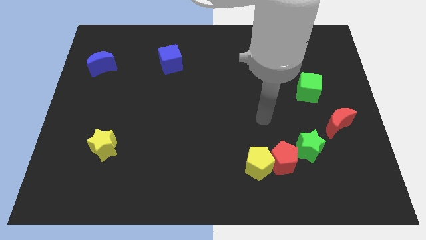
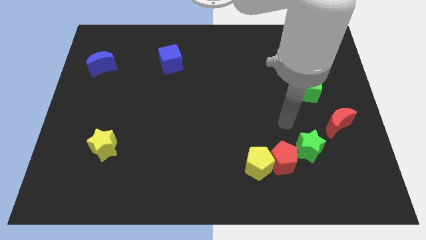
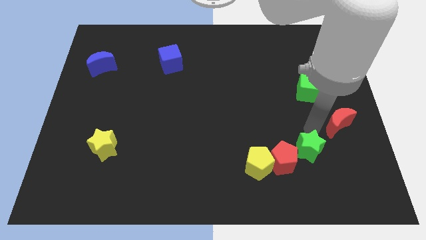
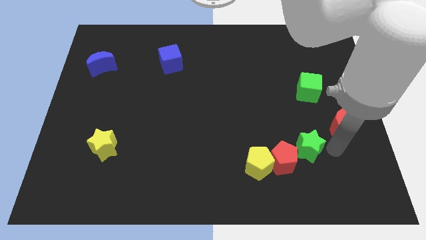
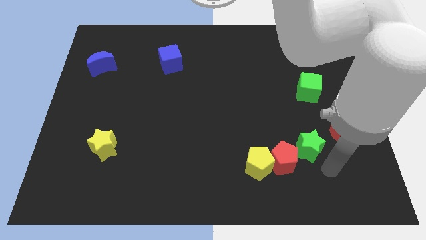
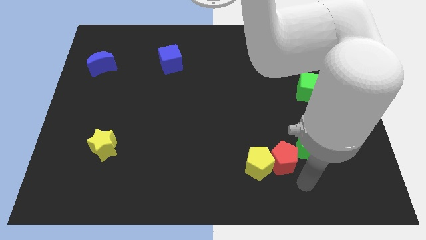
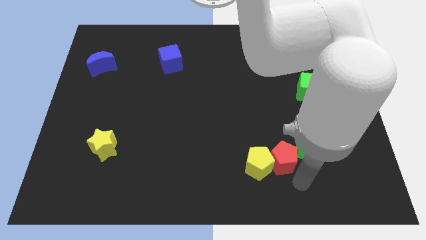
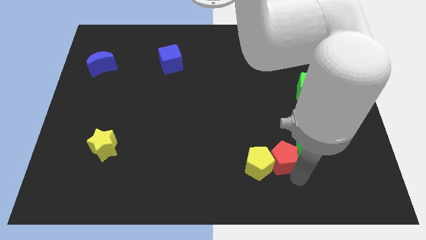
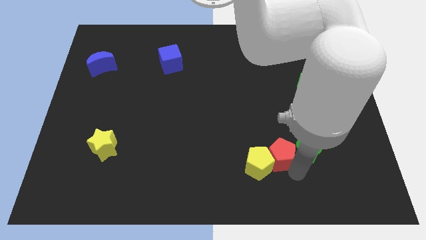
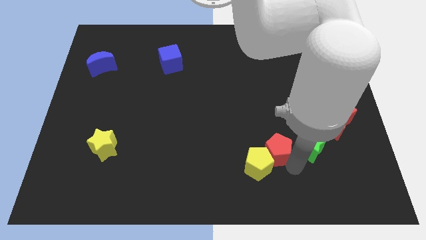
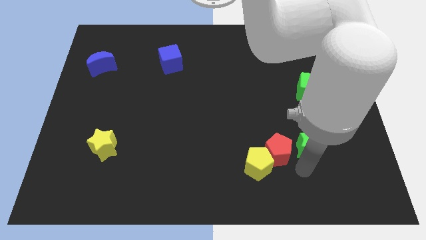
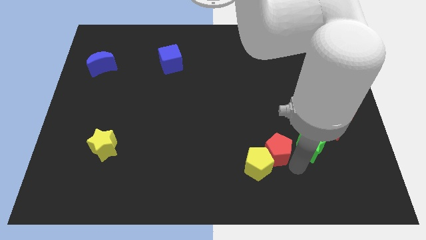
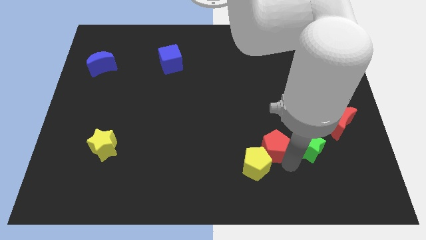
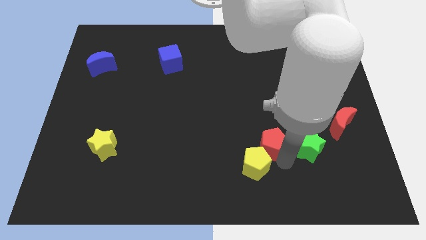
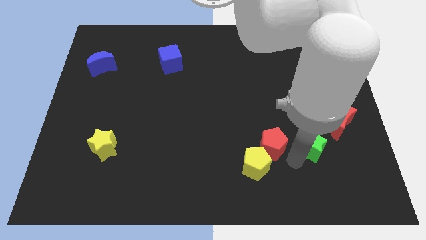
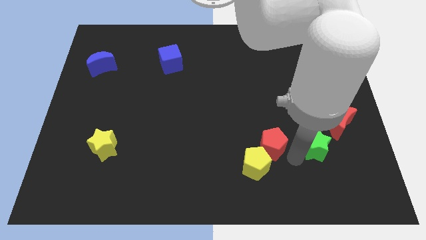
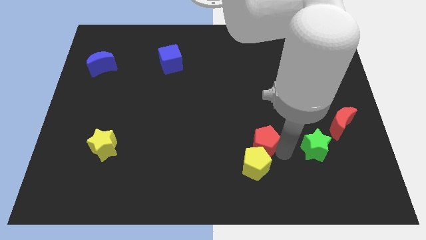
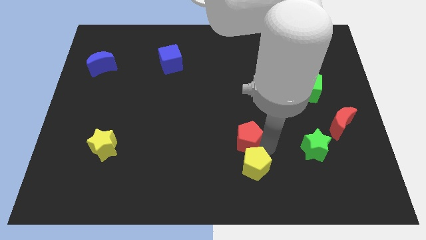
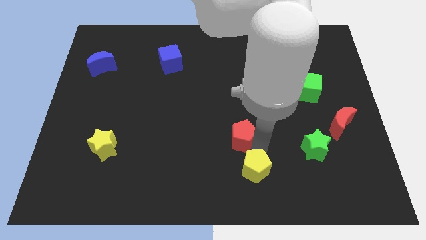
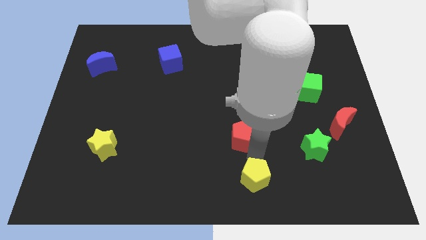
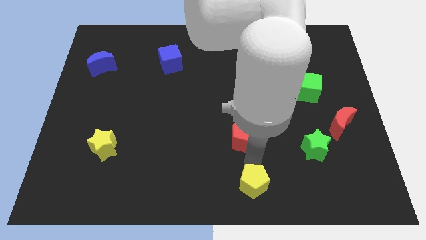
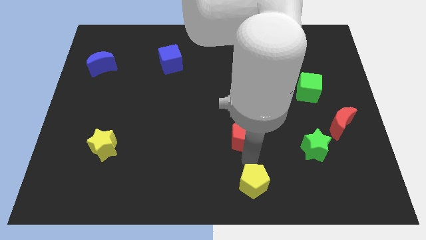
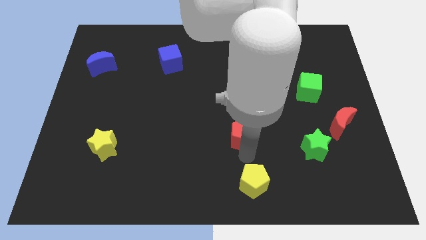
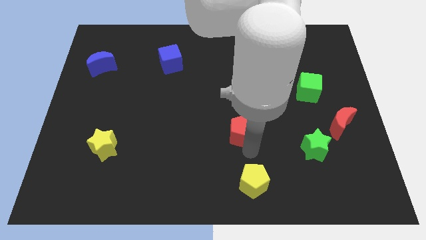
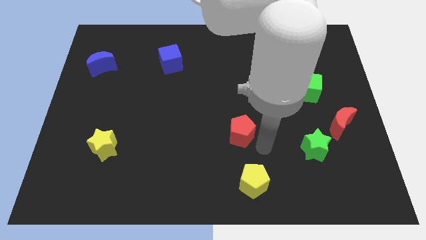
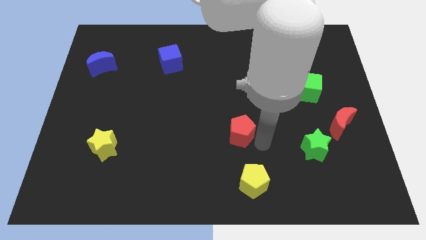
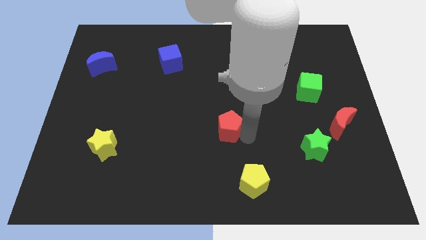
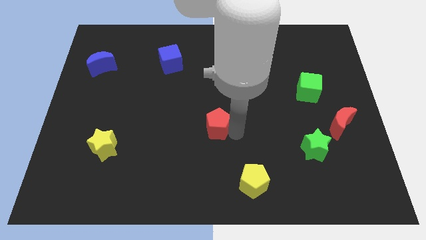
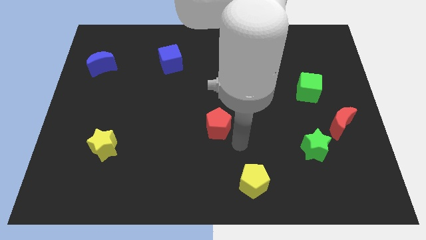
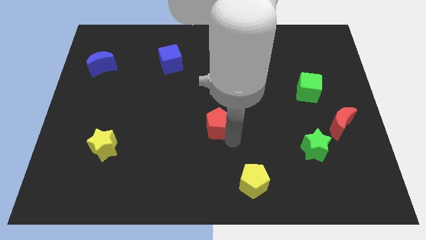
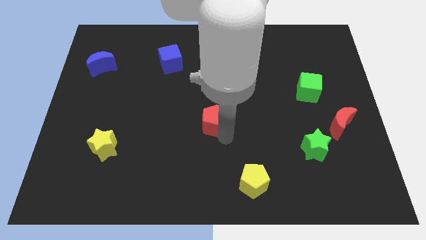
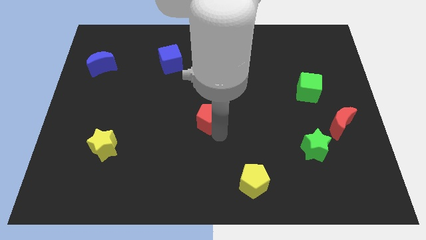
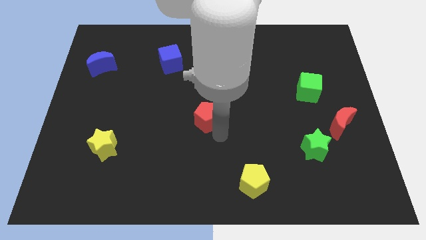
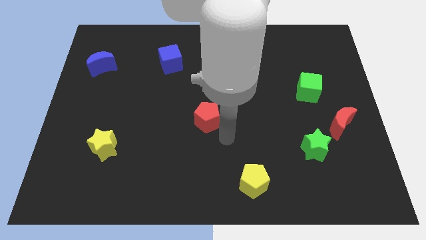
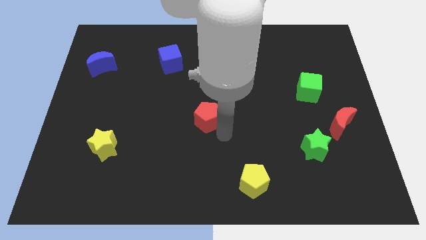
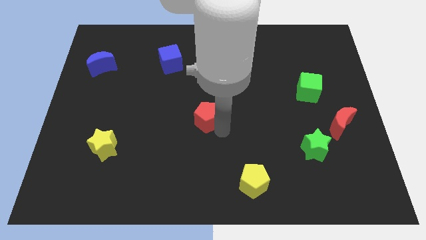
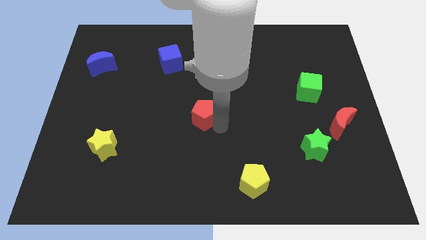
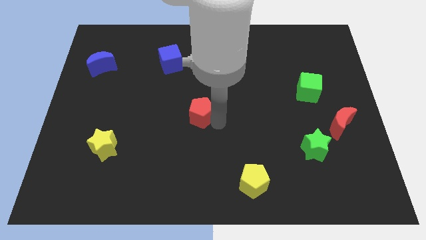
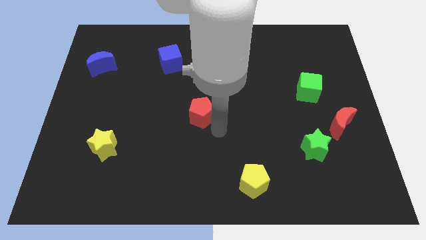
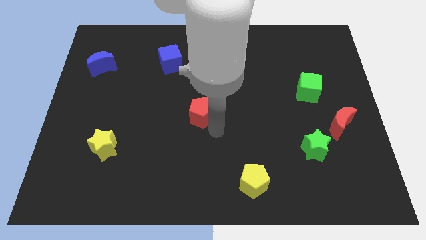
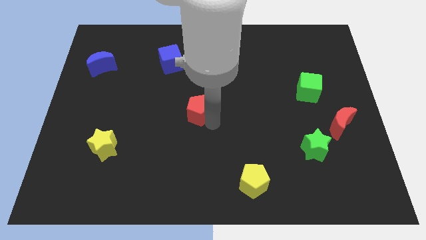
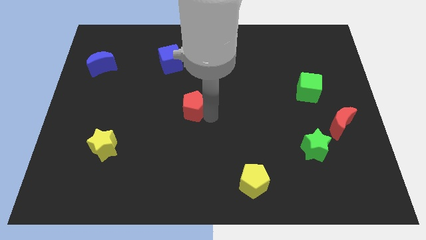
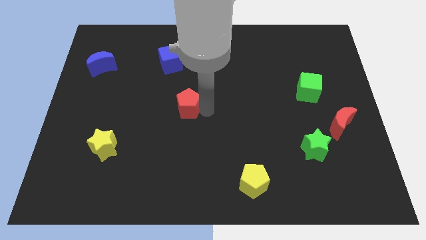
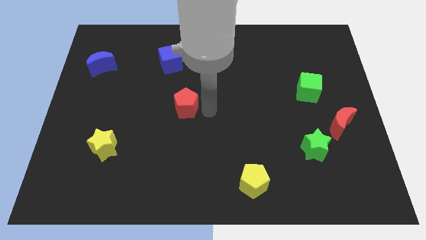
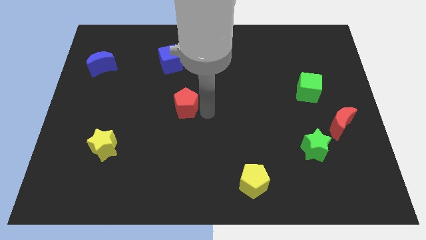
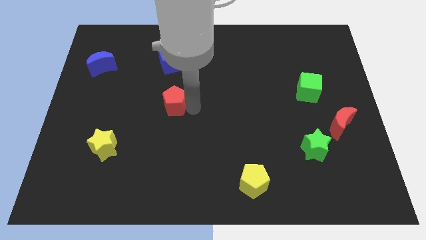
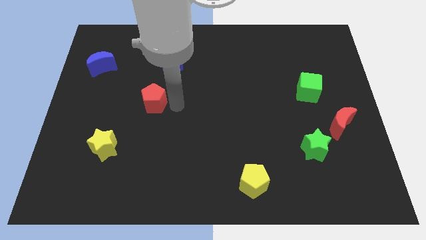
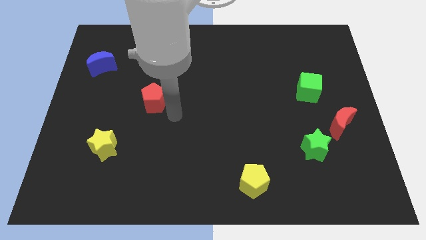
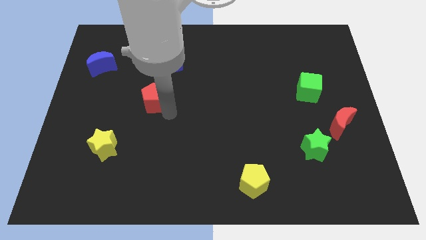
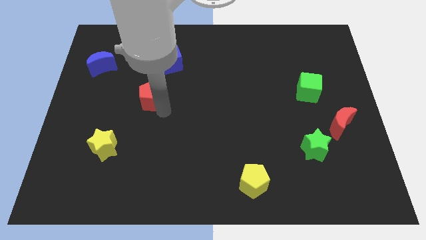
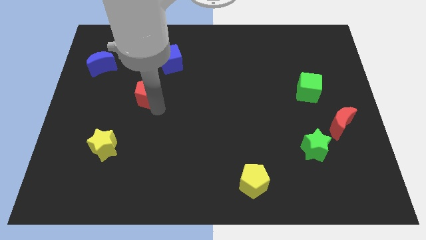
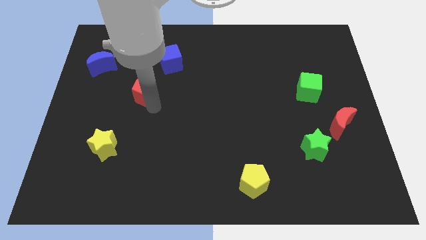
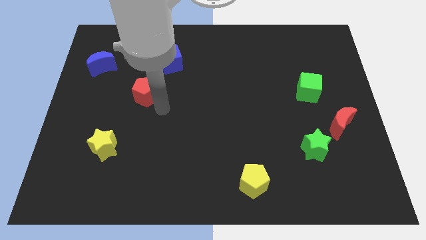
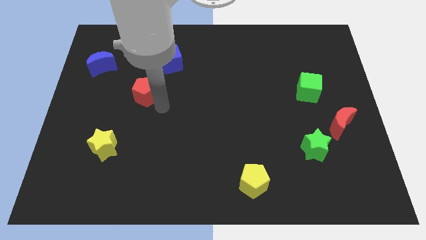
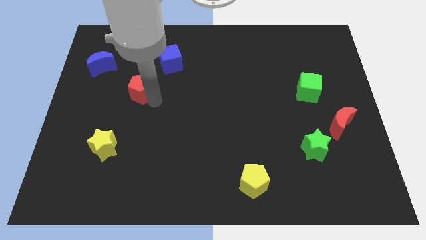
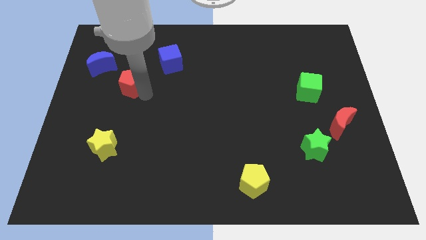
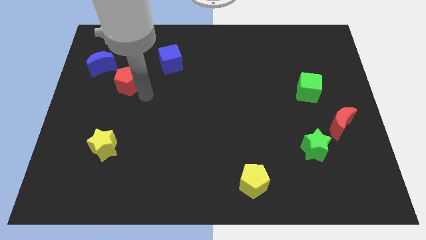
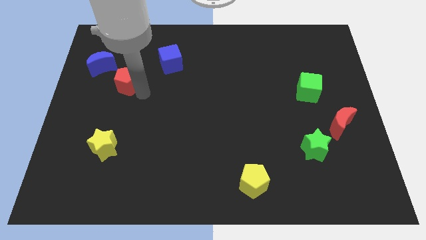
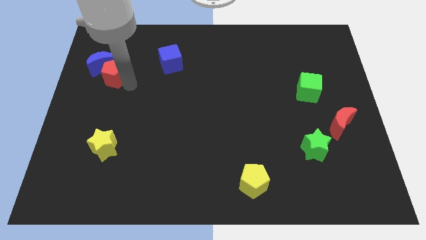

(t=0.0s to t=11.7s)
push the red pentagon close to the blue moon

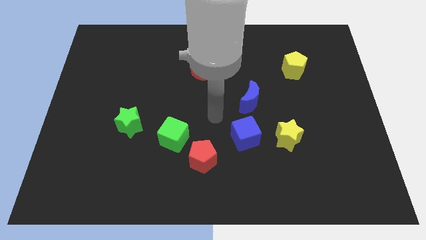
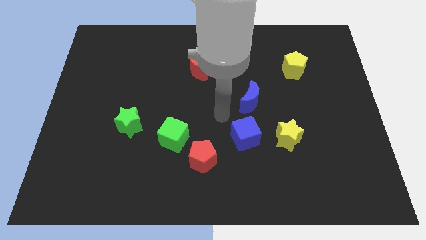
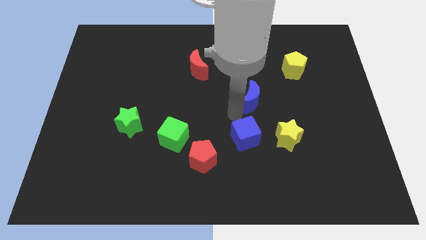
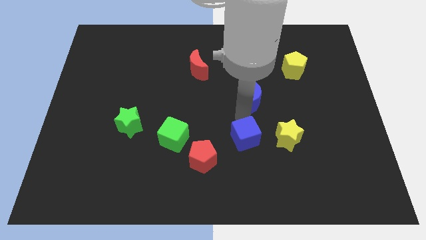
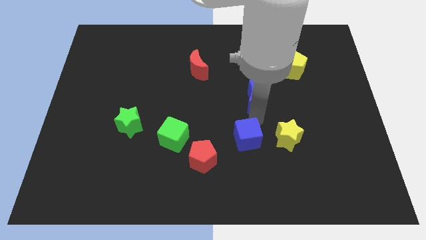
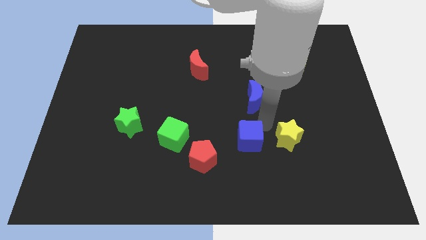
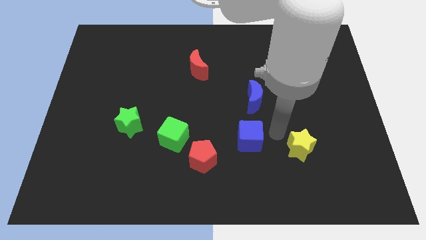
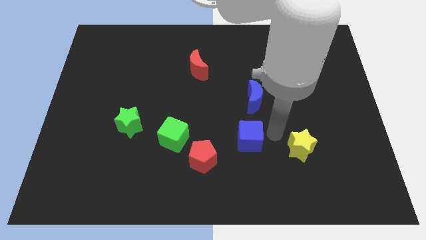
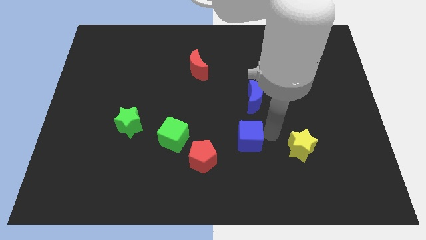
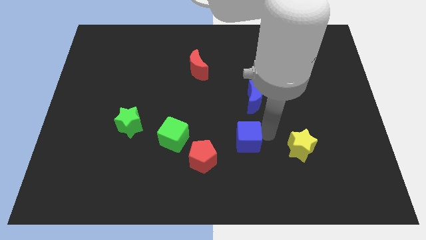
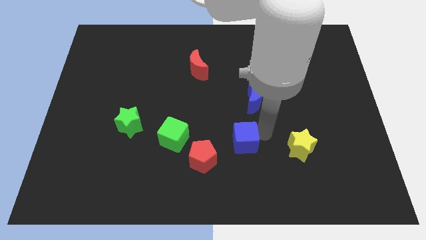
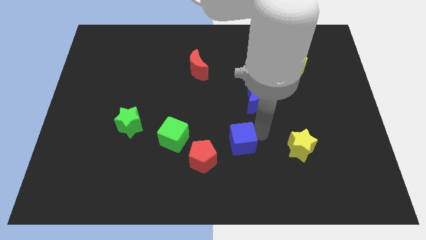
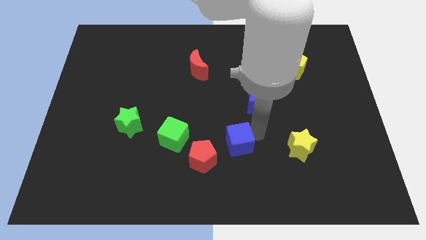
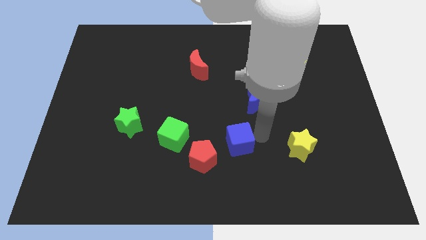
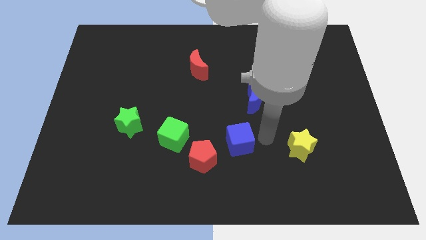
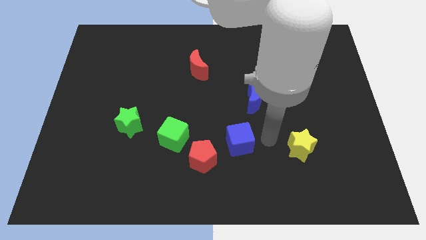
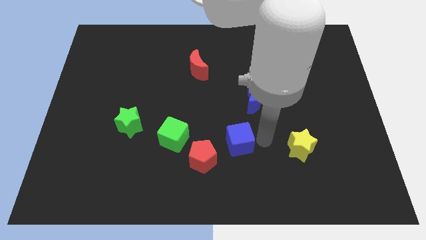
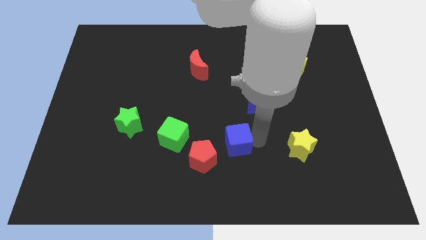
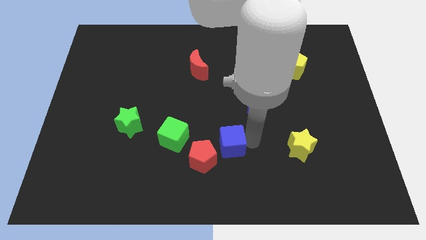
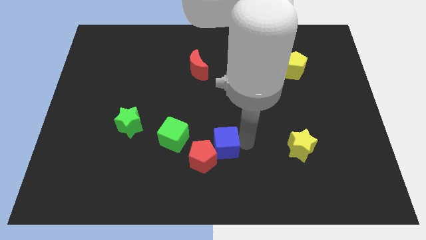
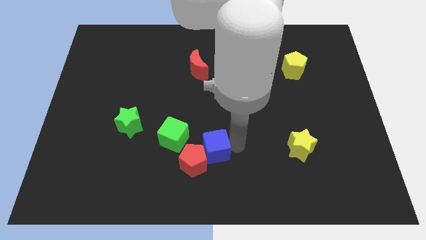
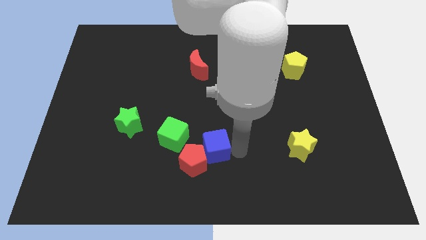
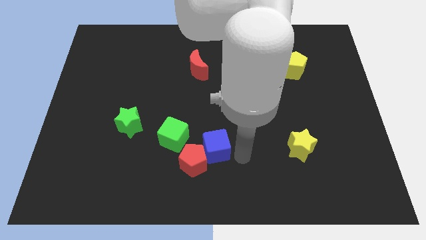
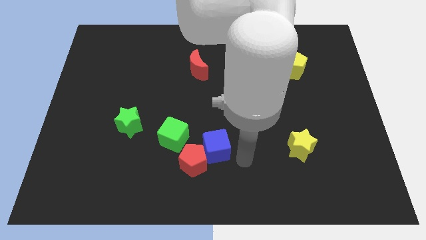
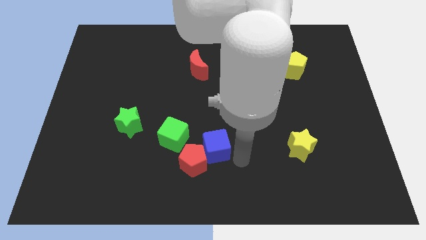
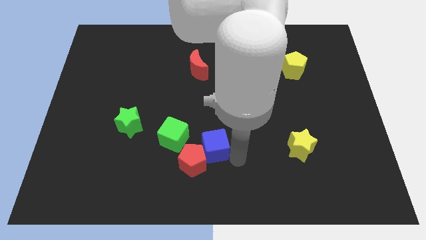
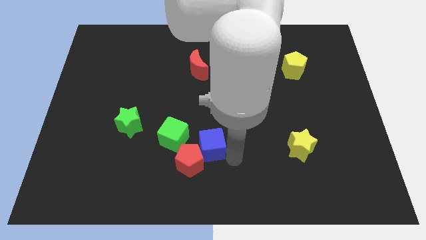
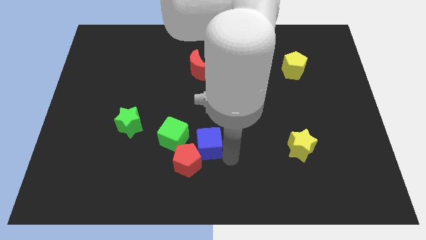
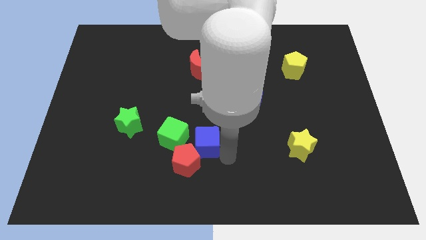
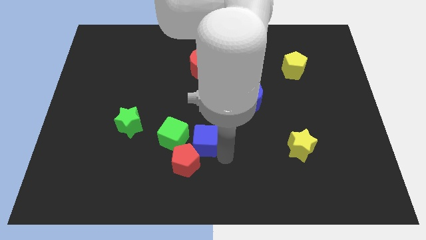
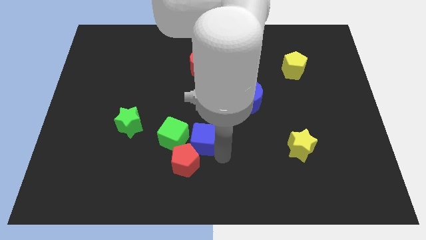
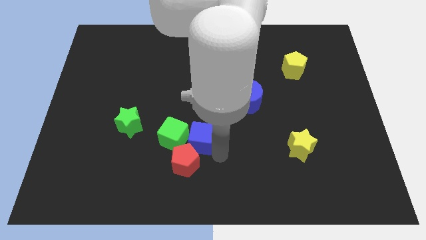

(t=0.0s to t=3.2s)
slide the blue cube towards the green cube
